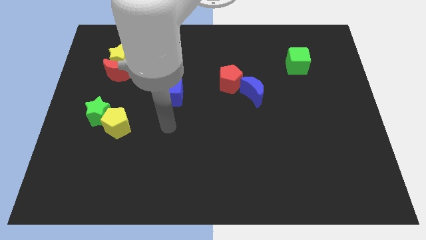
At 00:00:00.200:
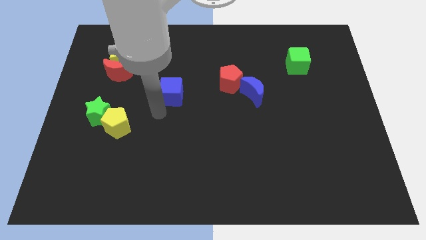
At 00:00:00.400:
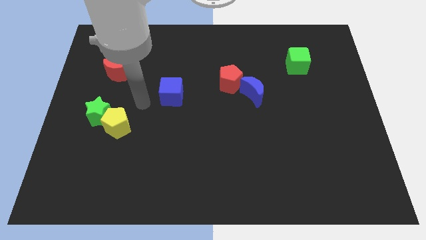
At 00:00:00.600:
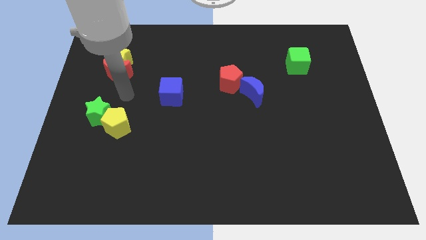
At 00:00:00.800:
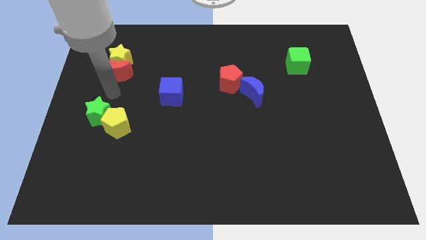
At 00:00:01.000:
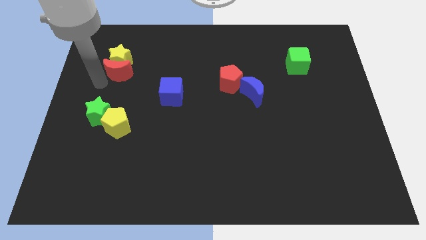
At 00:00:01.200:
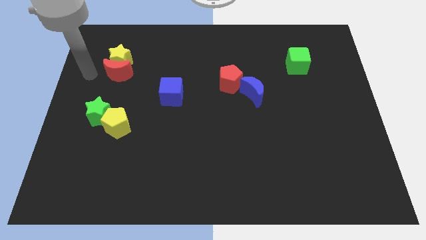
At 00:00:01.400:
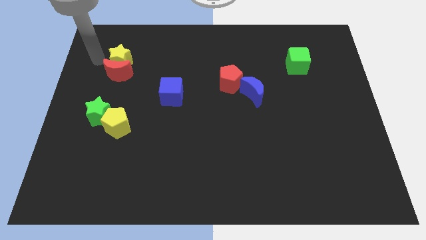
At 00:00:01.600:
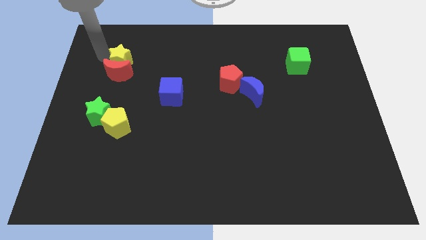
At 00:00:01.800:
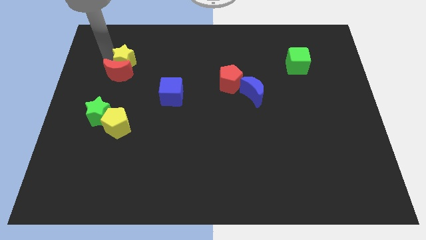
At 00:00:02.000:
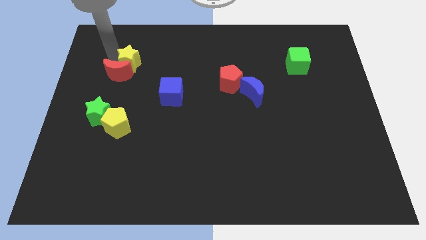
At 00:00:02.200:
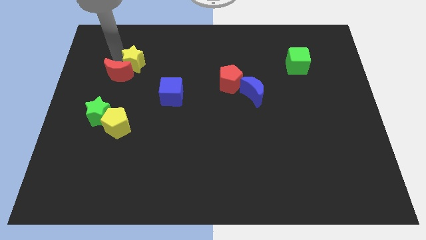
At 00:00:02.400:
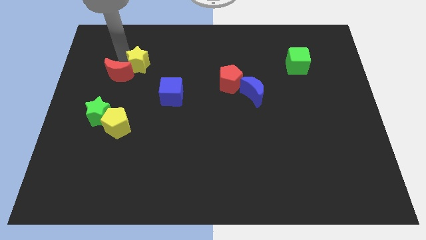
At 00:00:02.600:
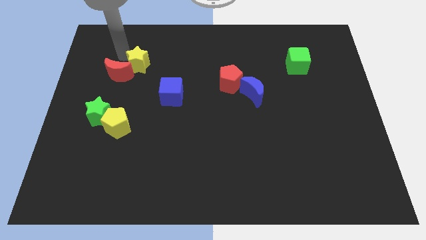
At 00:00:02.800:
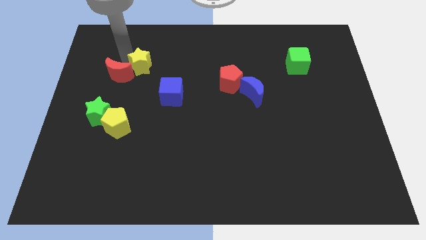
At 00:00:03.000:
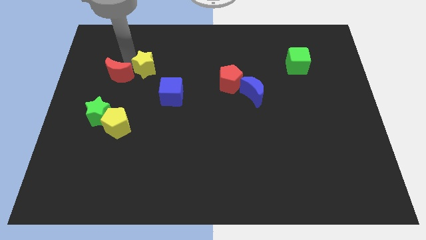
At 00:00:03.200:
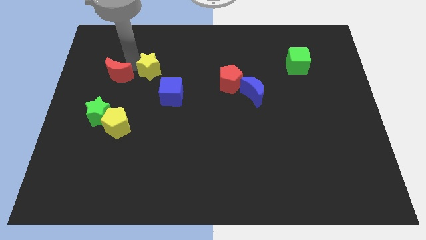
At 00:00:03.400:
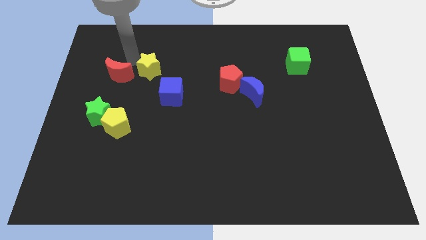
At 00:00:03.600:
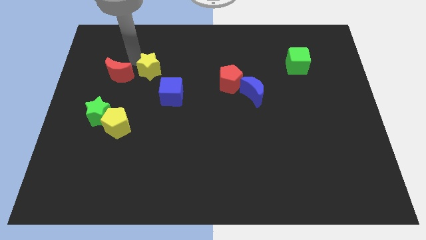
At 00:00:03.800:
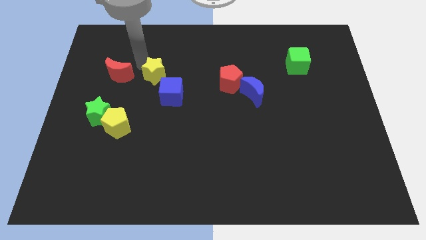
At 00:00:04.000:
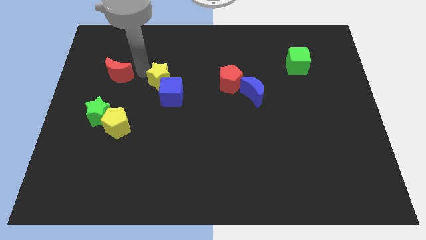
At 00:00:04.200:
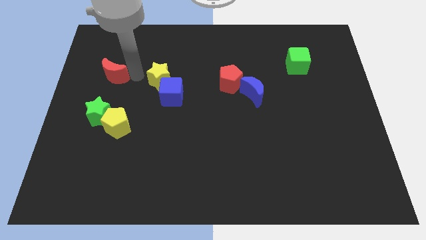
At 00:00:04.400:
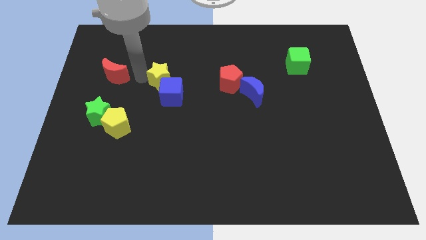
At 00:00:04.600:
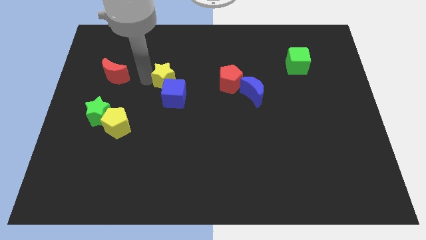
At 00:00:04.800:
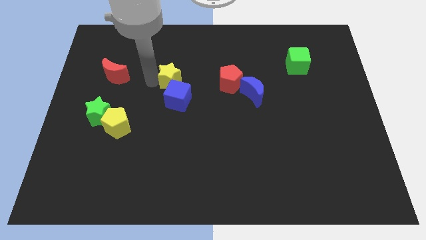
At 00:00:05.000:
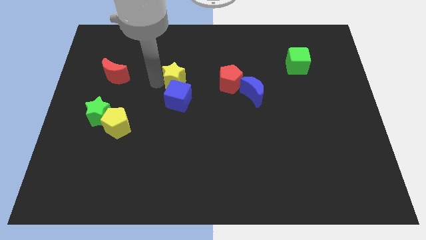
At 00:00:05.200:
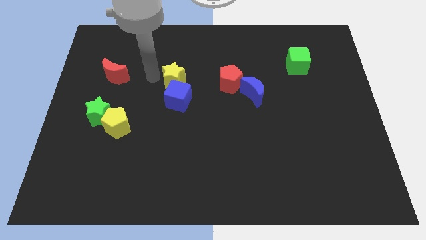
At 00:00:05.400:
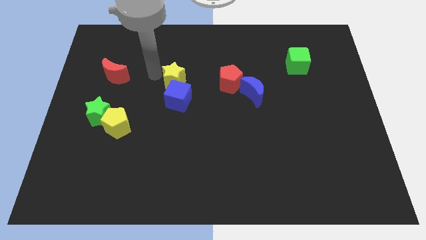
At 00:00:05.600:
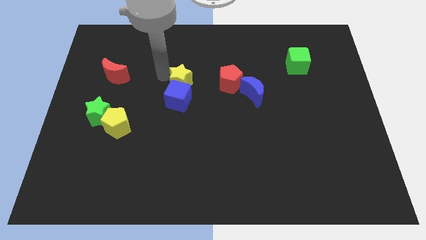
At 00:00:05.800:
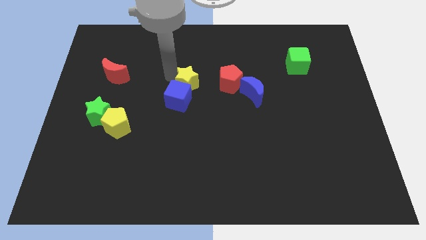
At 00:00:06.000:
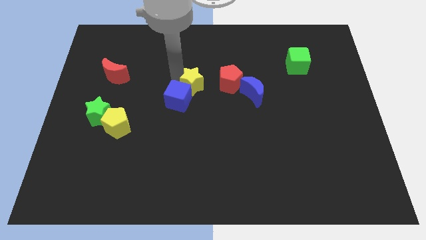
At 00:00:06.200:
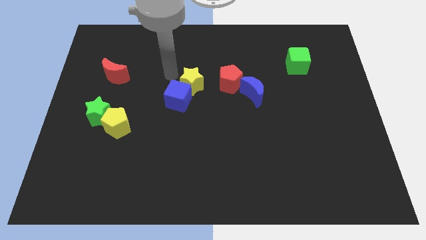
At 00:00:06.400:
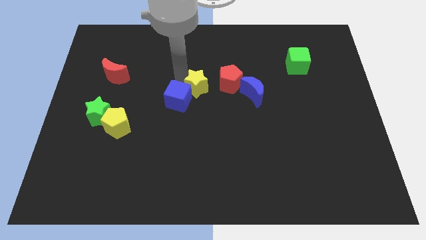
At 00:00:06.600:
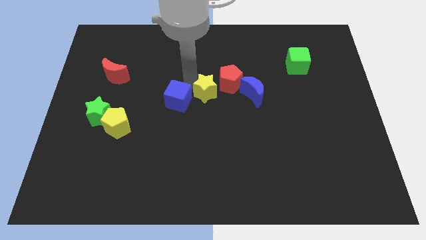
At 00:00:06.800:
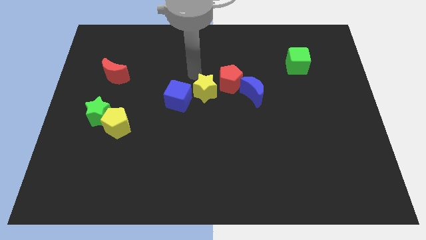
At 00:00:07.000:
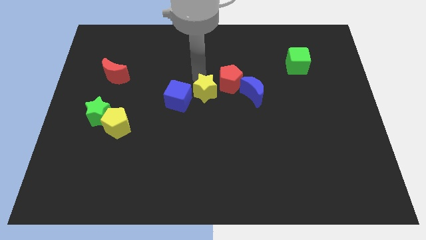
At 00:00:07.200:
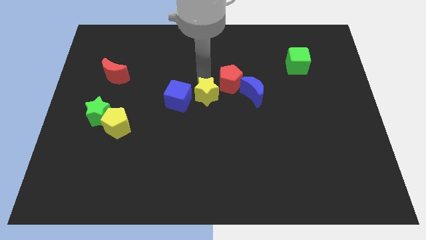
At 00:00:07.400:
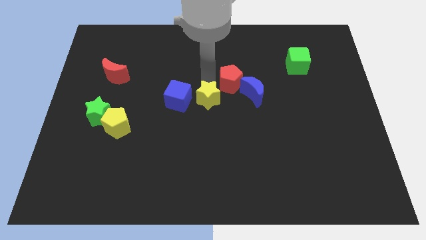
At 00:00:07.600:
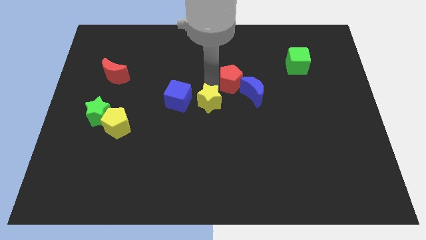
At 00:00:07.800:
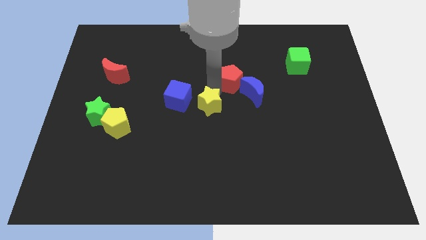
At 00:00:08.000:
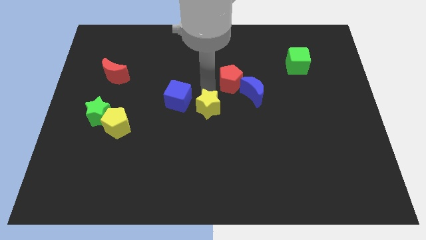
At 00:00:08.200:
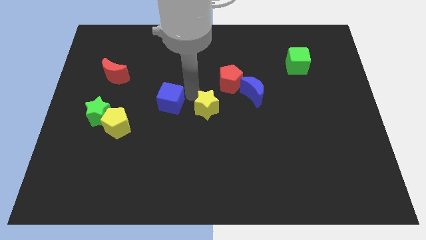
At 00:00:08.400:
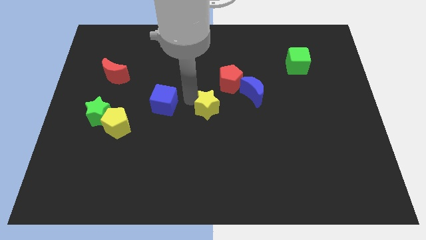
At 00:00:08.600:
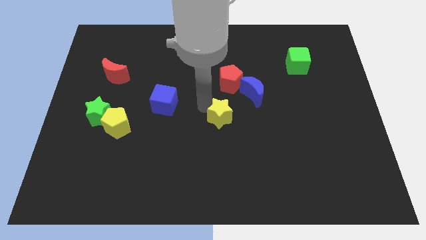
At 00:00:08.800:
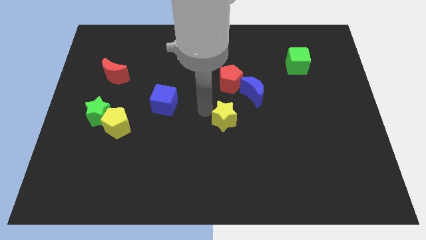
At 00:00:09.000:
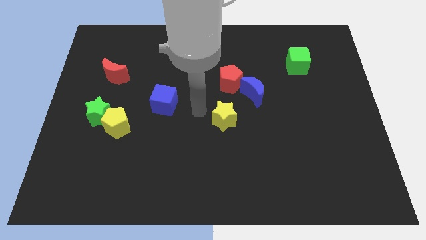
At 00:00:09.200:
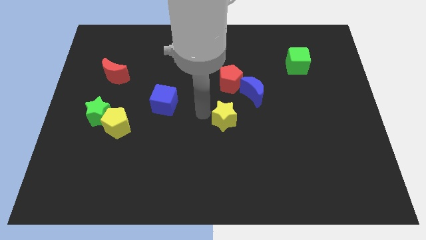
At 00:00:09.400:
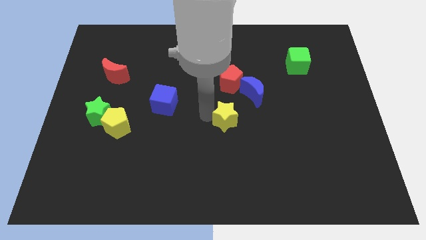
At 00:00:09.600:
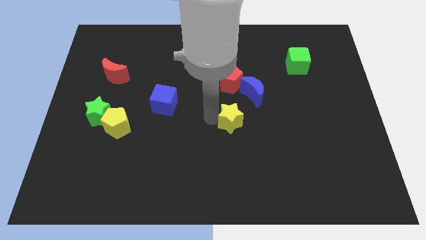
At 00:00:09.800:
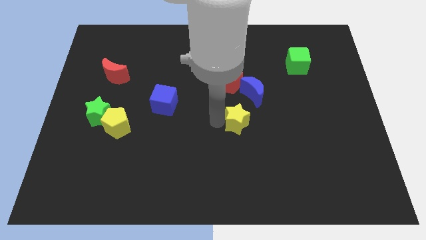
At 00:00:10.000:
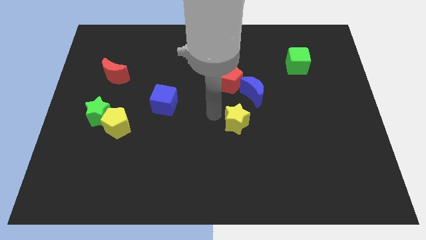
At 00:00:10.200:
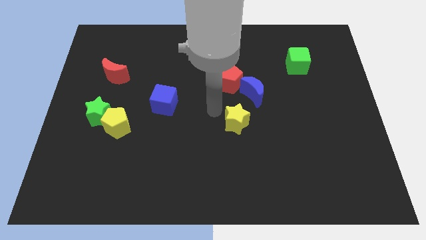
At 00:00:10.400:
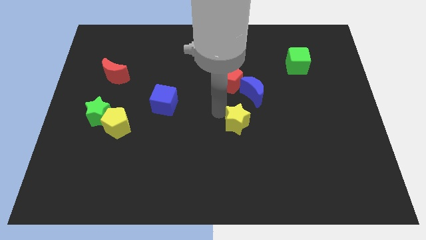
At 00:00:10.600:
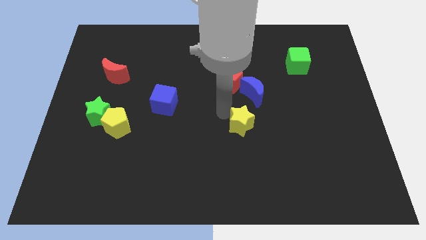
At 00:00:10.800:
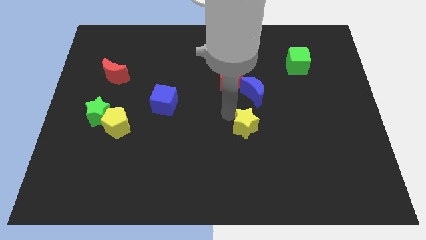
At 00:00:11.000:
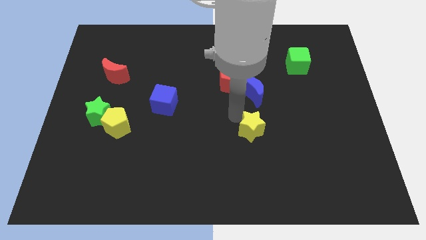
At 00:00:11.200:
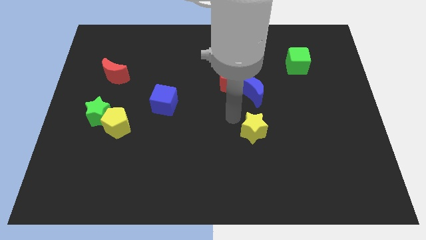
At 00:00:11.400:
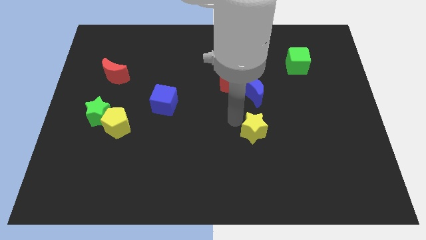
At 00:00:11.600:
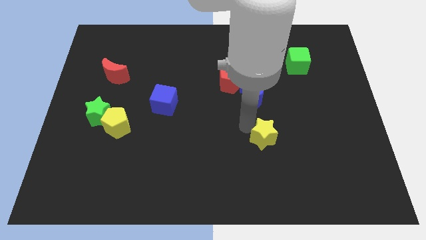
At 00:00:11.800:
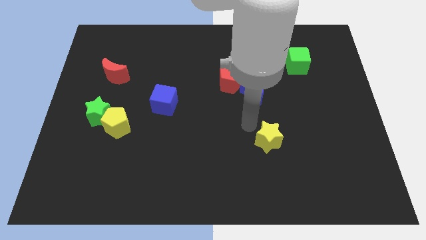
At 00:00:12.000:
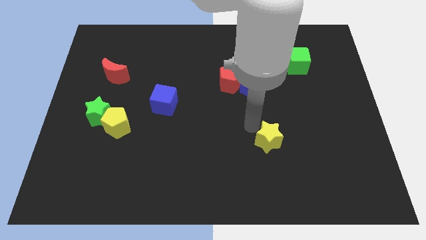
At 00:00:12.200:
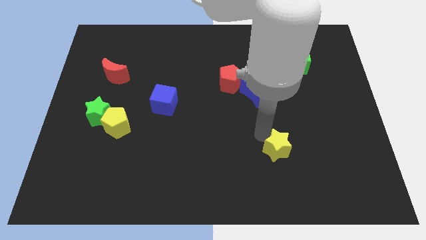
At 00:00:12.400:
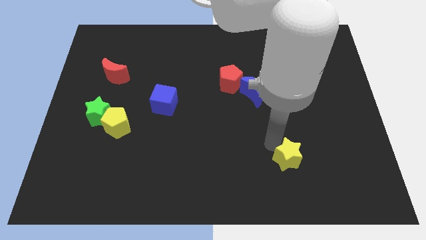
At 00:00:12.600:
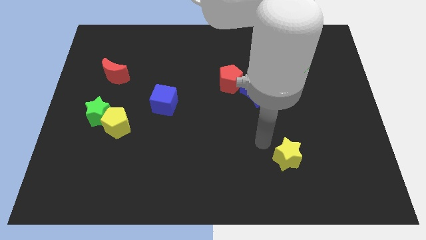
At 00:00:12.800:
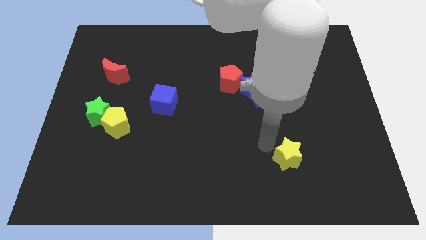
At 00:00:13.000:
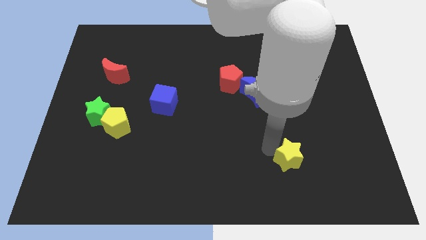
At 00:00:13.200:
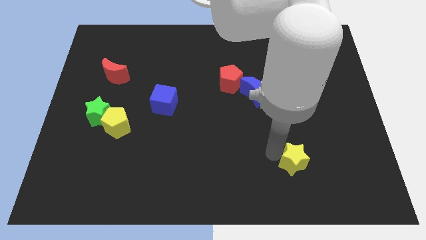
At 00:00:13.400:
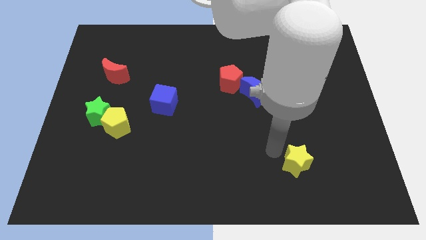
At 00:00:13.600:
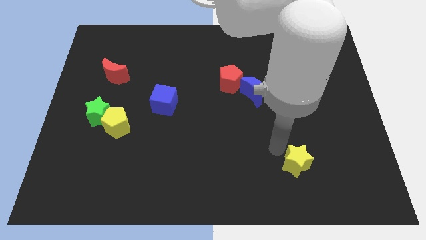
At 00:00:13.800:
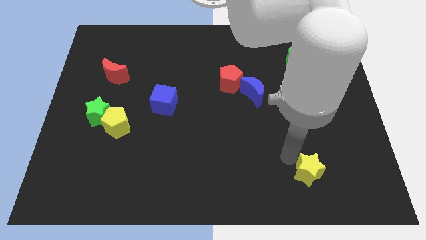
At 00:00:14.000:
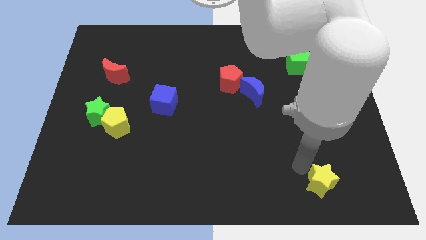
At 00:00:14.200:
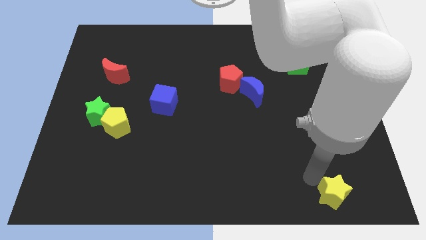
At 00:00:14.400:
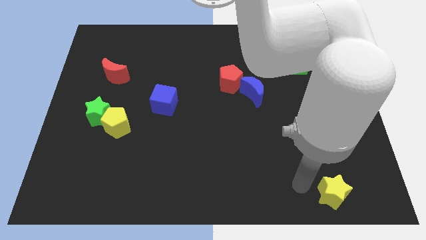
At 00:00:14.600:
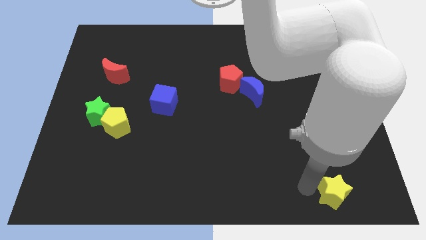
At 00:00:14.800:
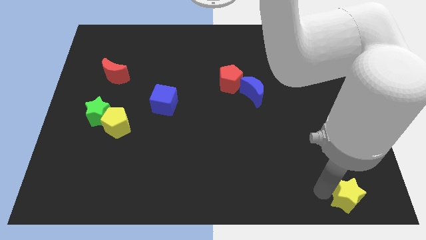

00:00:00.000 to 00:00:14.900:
push the yellow star to the lower right corner
